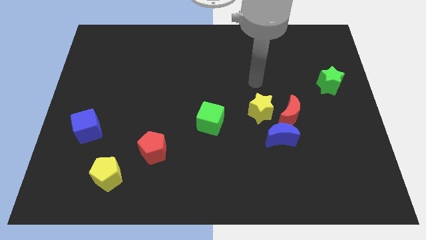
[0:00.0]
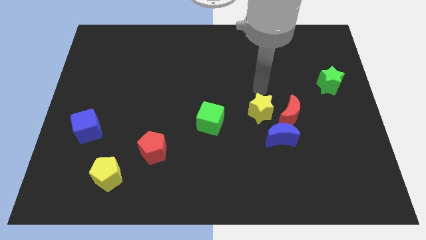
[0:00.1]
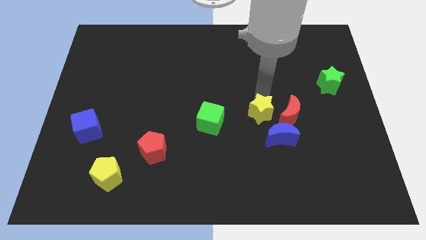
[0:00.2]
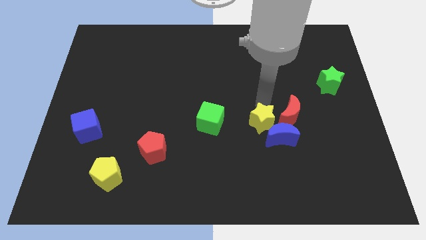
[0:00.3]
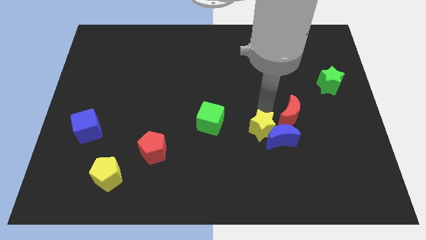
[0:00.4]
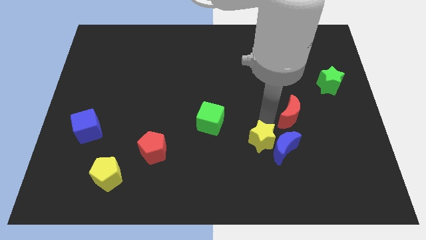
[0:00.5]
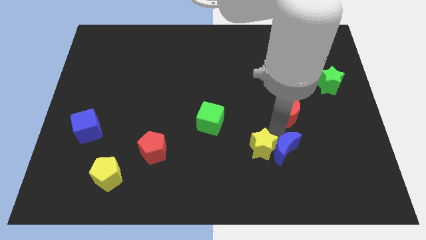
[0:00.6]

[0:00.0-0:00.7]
separate the red moon from the blue moon and yellow star

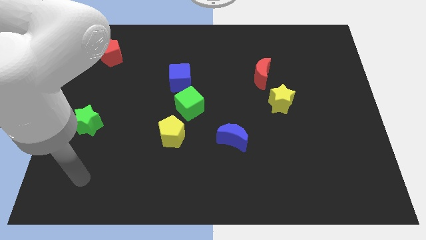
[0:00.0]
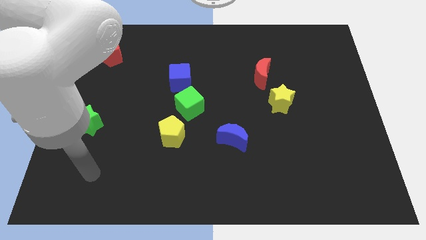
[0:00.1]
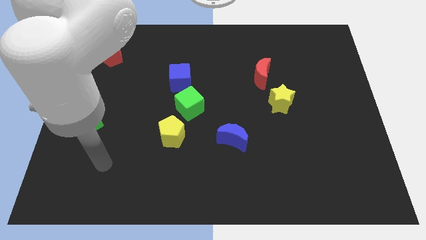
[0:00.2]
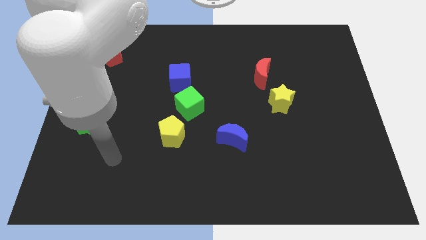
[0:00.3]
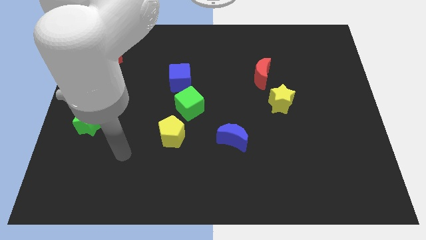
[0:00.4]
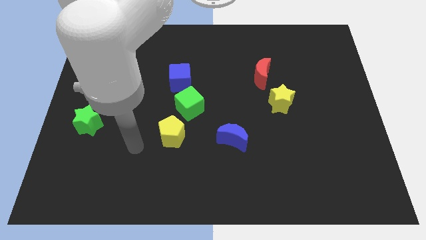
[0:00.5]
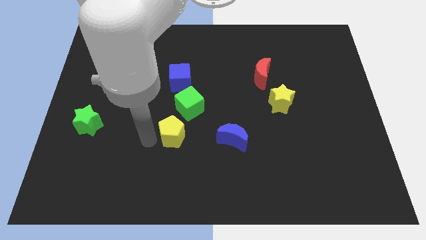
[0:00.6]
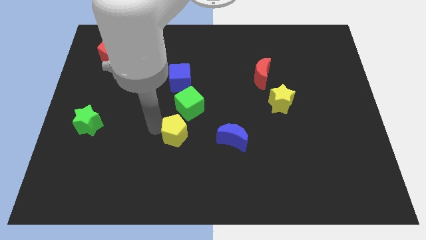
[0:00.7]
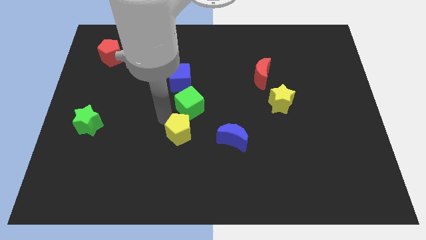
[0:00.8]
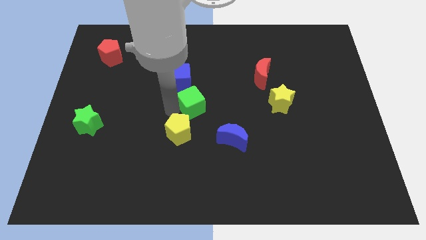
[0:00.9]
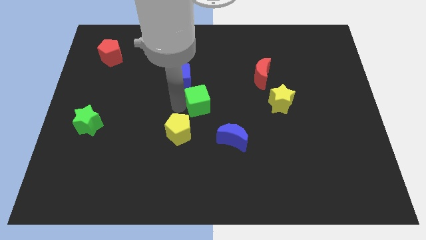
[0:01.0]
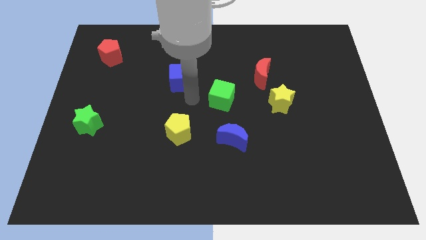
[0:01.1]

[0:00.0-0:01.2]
separate the blue cube from the green cube

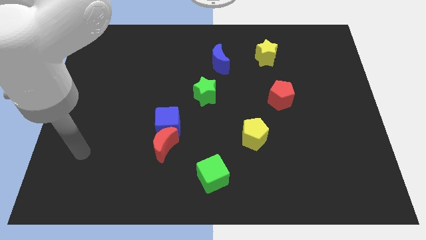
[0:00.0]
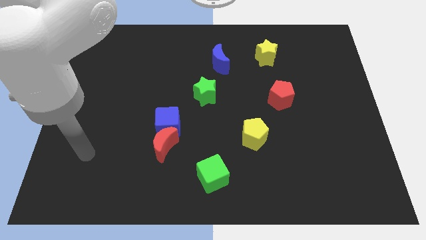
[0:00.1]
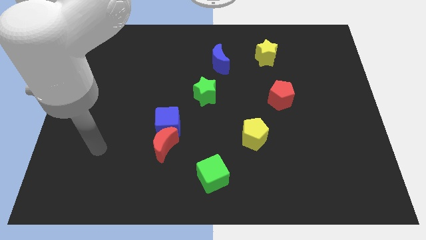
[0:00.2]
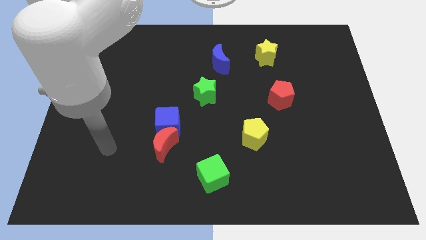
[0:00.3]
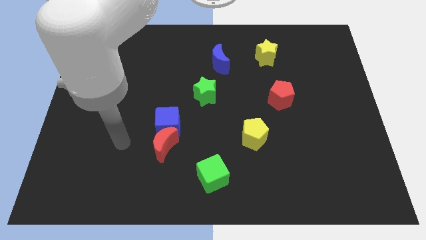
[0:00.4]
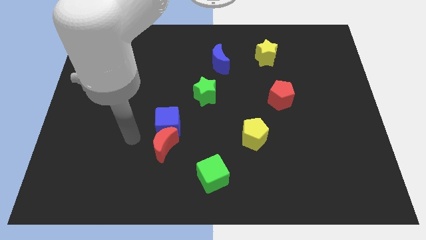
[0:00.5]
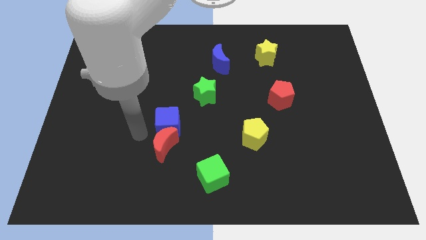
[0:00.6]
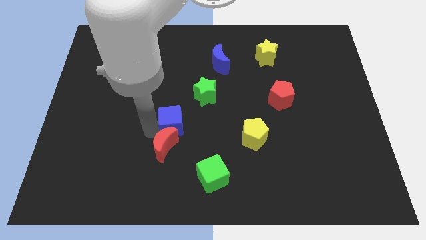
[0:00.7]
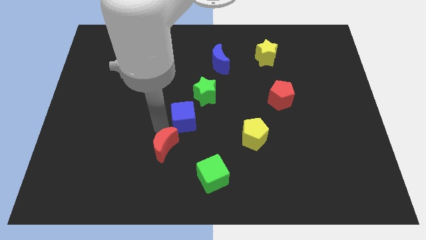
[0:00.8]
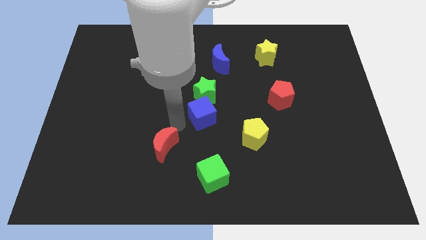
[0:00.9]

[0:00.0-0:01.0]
pull the red moon apart from the blue cube

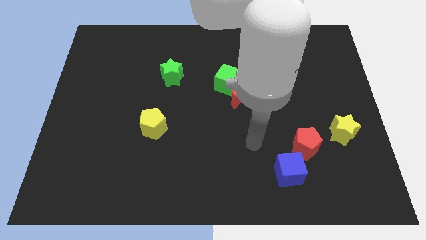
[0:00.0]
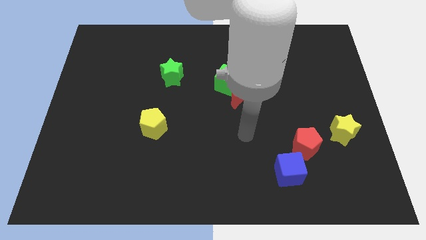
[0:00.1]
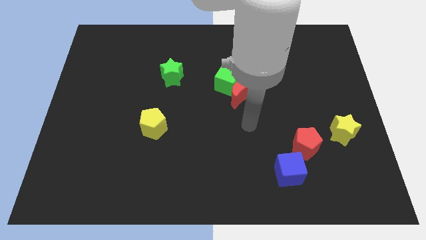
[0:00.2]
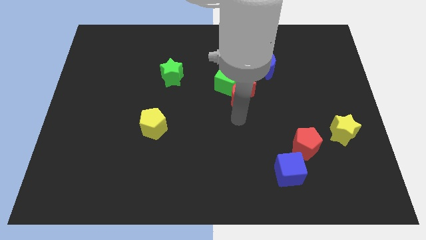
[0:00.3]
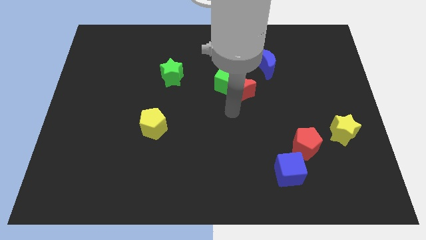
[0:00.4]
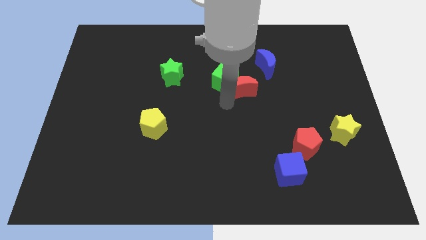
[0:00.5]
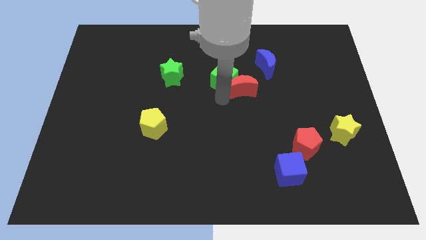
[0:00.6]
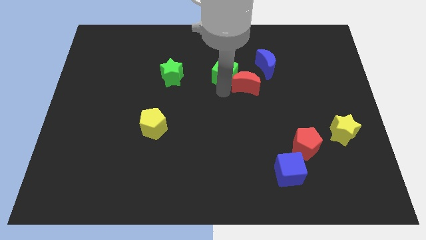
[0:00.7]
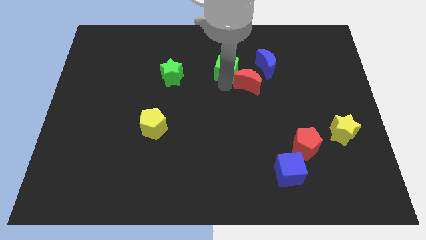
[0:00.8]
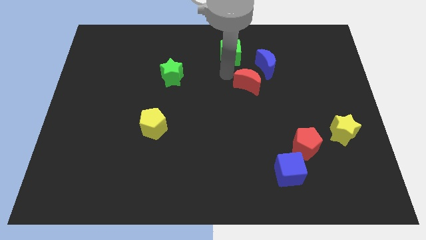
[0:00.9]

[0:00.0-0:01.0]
move the red moon away from the green cube

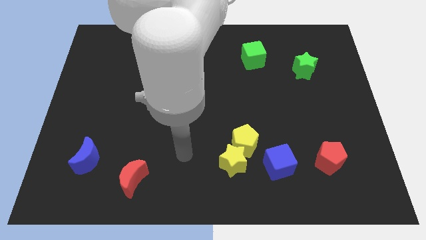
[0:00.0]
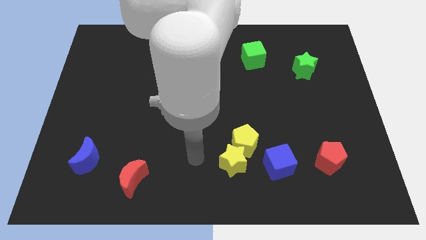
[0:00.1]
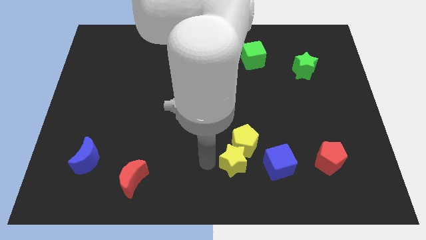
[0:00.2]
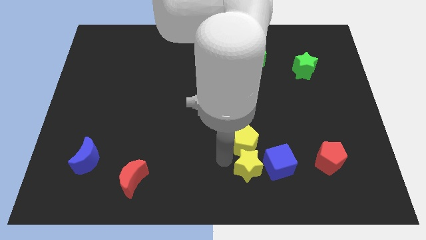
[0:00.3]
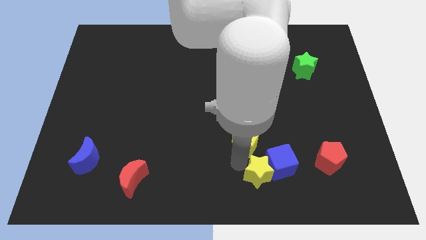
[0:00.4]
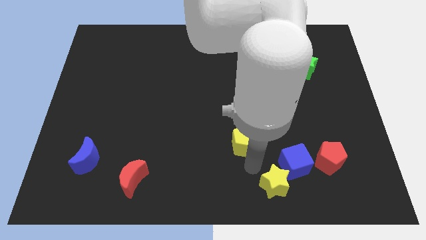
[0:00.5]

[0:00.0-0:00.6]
move the yellow pentagon away from the yellow star and blue cube

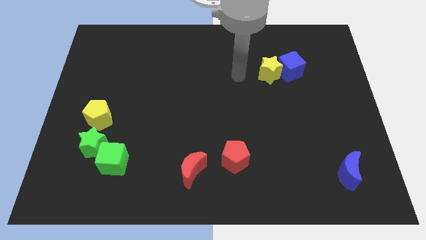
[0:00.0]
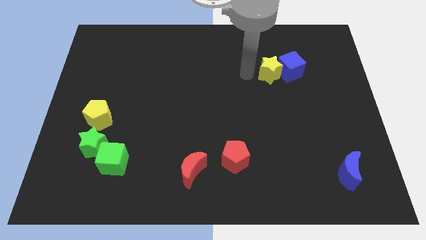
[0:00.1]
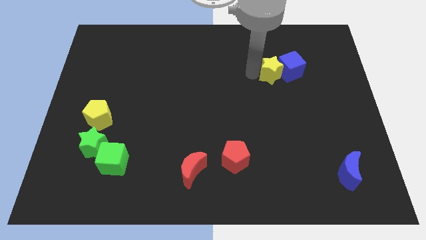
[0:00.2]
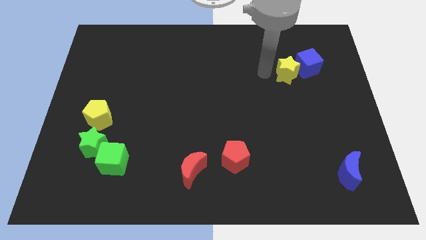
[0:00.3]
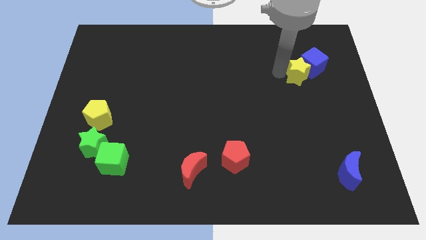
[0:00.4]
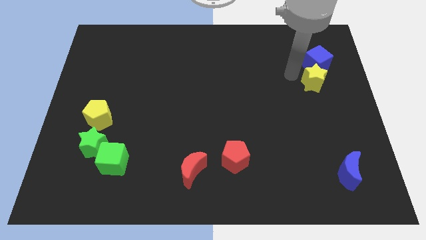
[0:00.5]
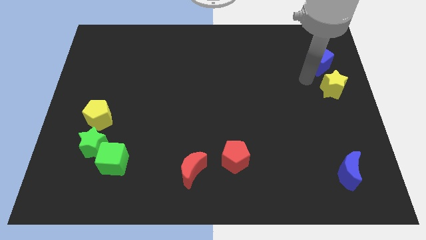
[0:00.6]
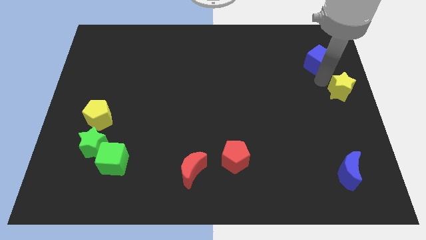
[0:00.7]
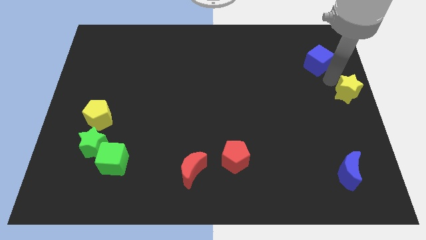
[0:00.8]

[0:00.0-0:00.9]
pull the blue cube apart from the yellow star

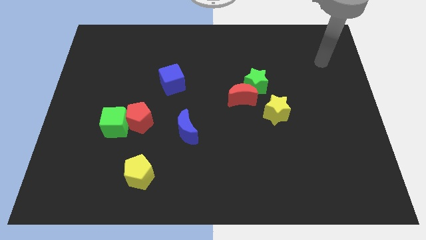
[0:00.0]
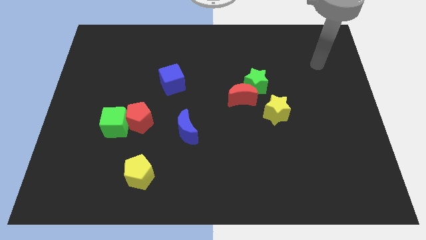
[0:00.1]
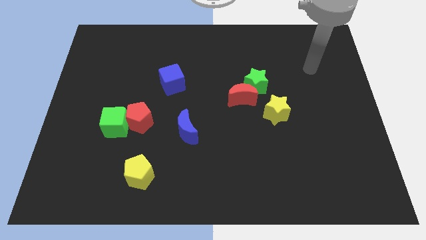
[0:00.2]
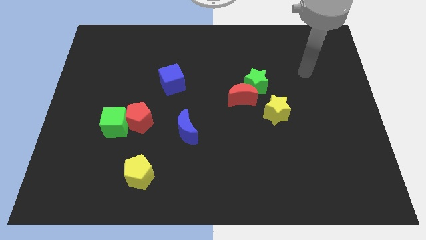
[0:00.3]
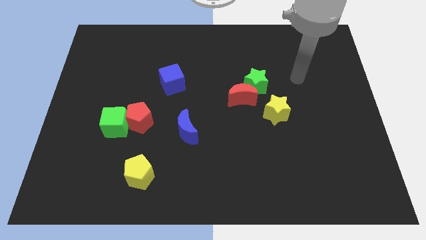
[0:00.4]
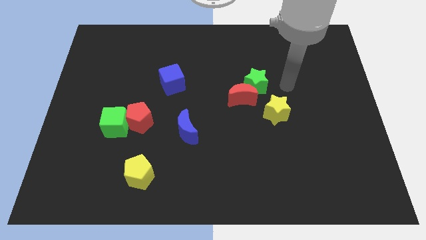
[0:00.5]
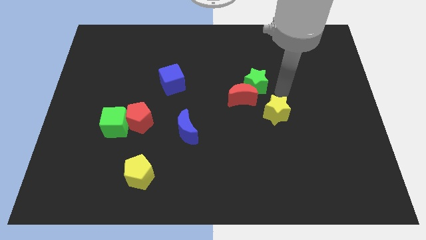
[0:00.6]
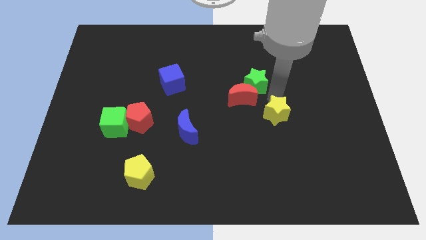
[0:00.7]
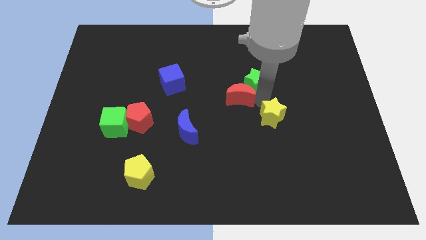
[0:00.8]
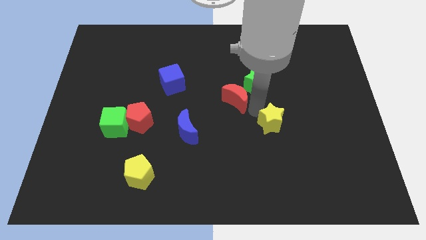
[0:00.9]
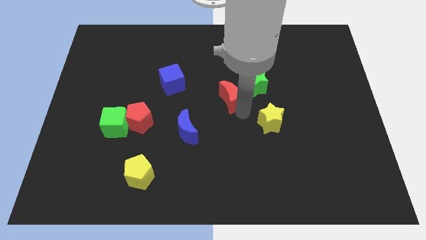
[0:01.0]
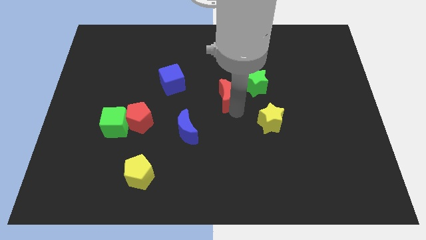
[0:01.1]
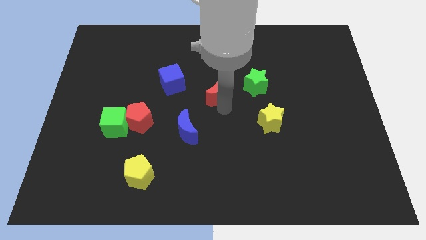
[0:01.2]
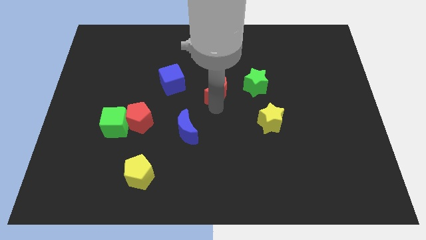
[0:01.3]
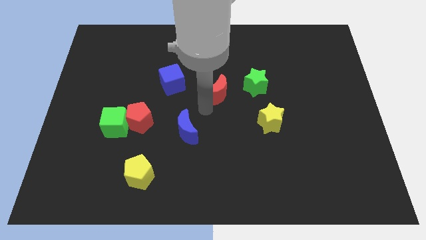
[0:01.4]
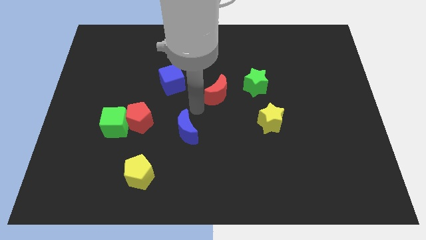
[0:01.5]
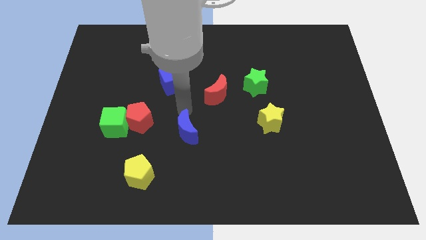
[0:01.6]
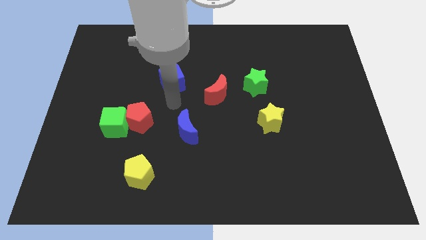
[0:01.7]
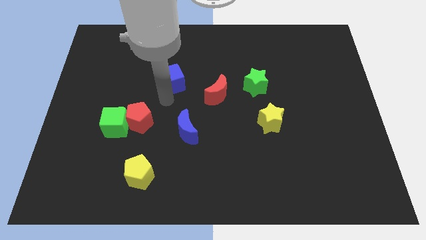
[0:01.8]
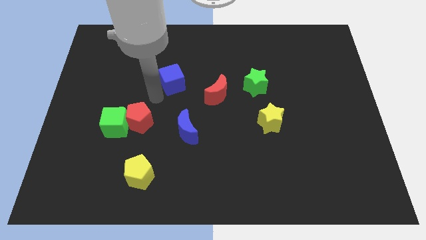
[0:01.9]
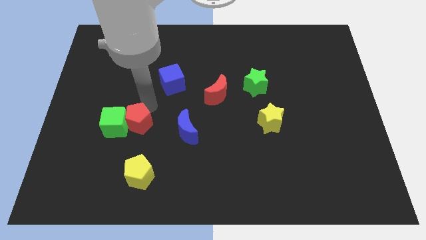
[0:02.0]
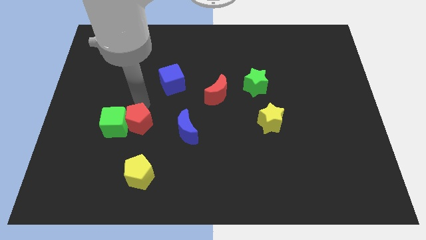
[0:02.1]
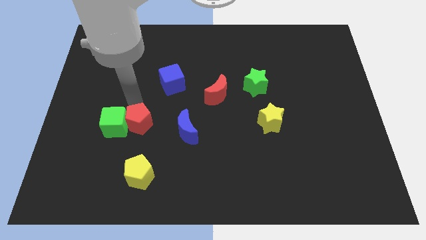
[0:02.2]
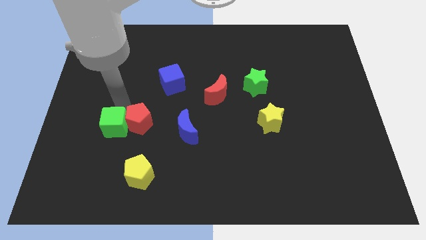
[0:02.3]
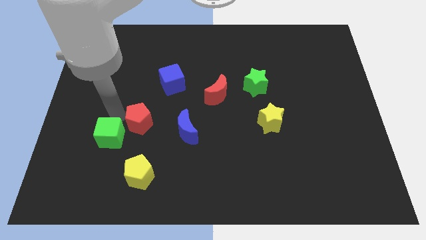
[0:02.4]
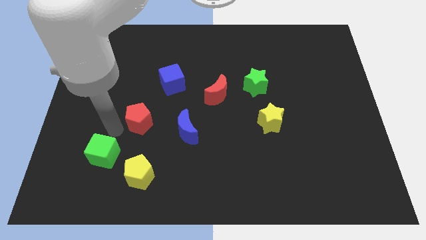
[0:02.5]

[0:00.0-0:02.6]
separate the red pentagon from the green cube

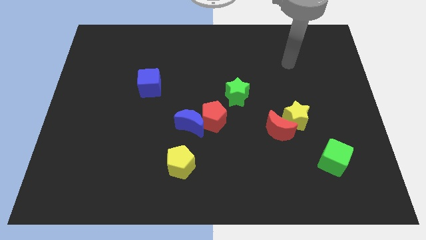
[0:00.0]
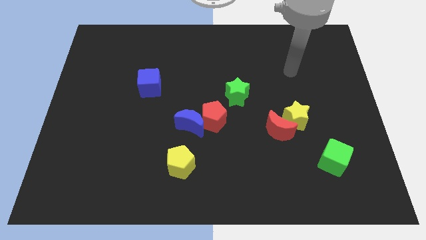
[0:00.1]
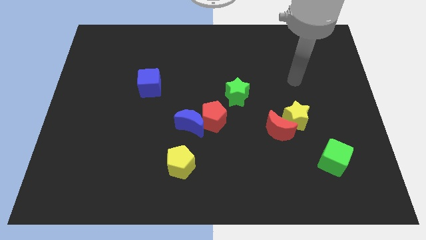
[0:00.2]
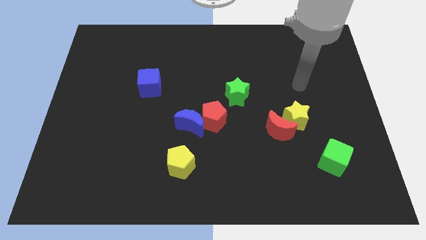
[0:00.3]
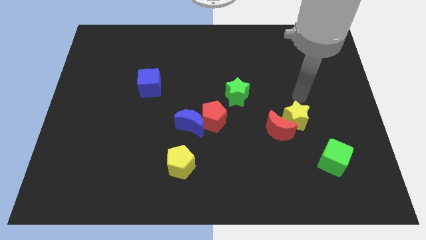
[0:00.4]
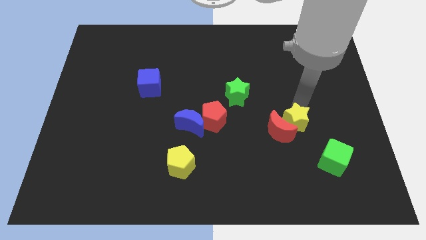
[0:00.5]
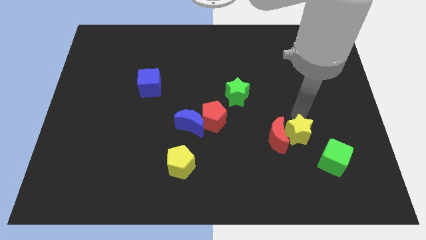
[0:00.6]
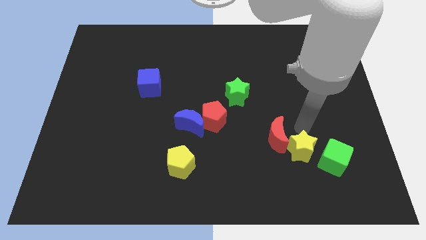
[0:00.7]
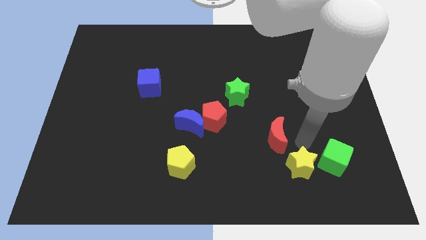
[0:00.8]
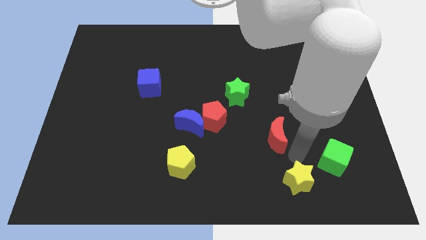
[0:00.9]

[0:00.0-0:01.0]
pull the red moon apart from the yellow star

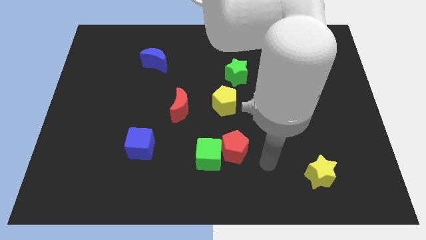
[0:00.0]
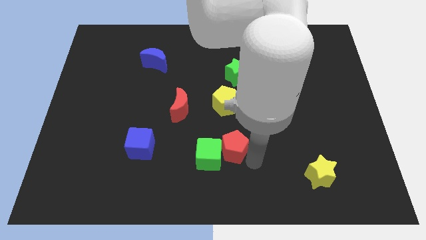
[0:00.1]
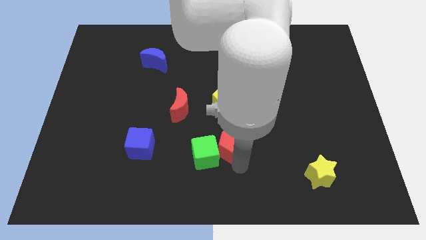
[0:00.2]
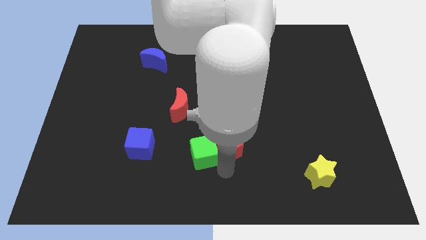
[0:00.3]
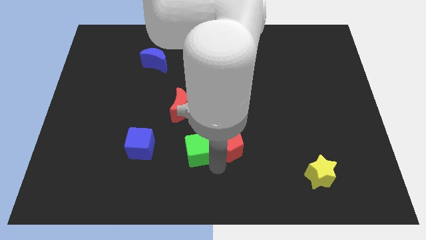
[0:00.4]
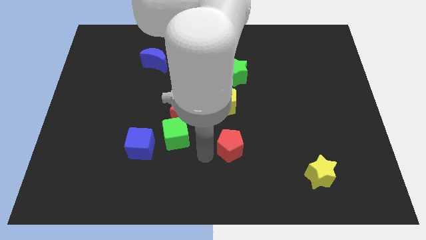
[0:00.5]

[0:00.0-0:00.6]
pull the red pentagon apart from the green cube
